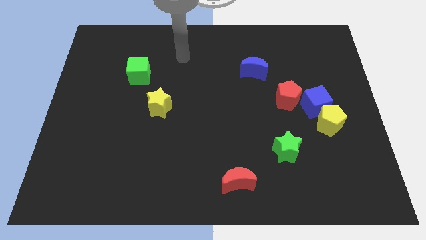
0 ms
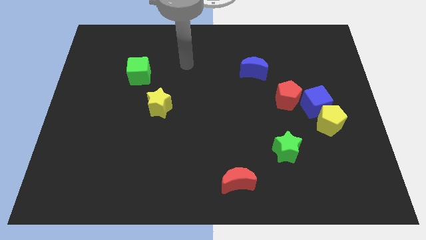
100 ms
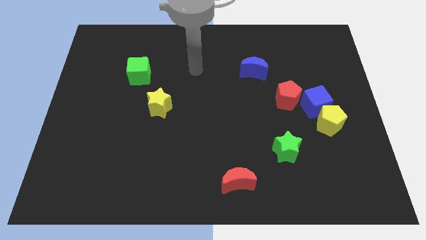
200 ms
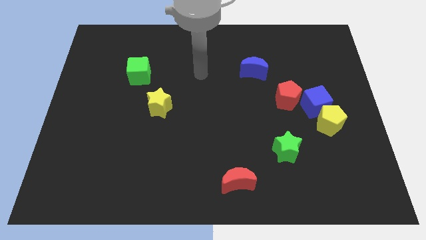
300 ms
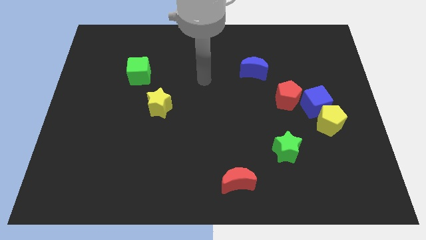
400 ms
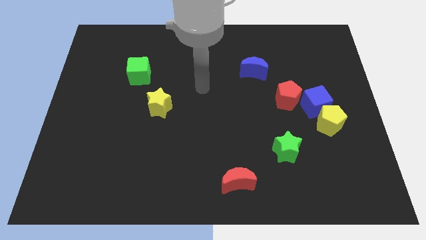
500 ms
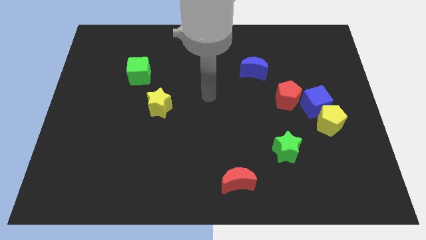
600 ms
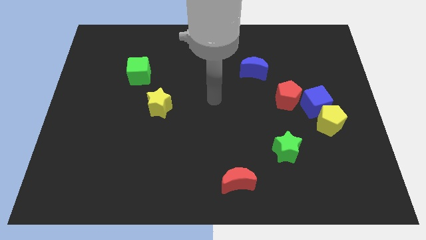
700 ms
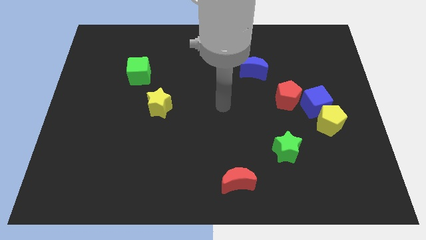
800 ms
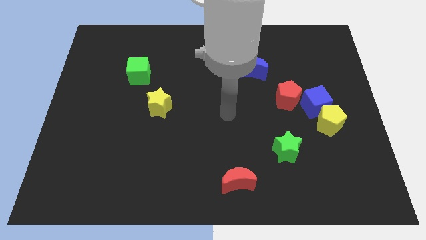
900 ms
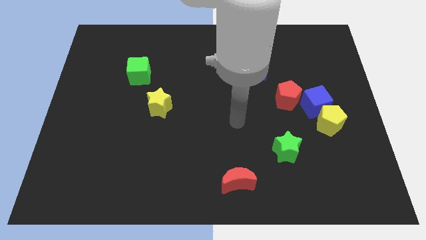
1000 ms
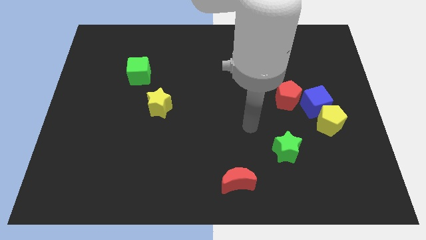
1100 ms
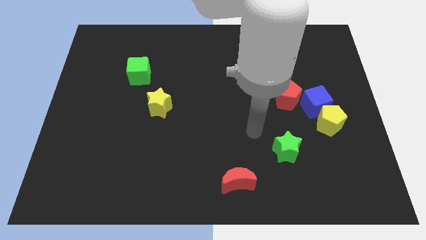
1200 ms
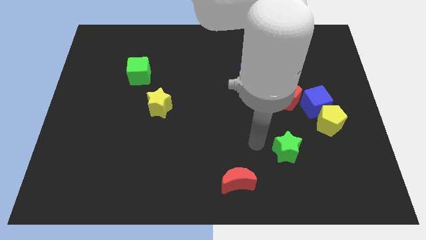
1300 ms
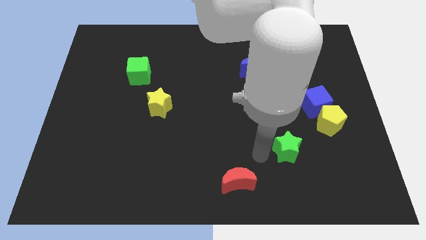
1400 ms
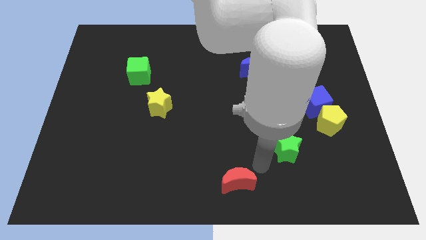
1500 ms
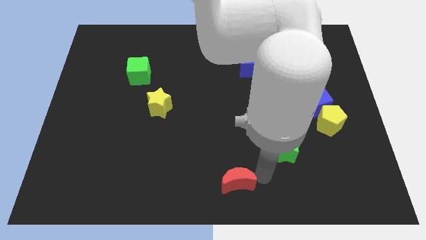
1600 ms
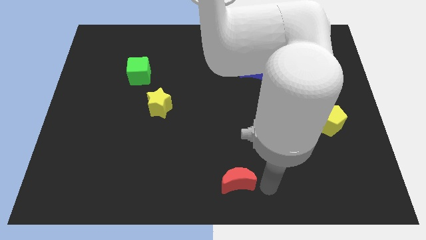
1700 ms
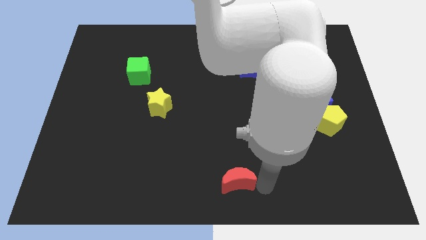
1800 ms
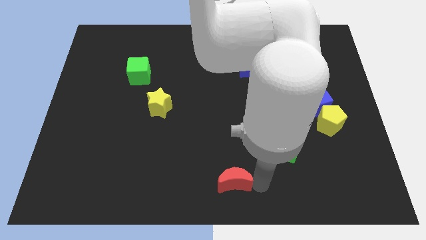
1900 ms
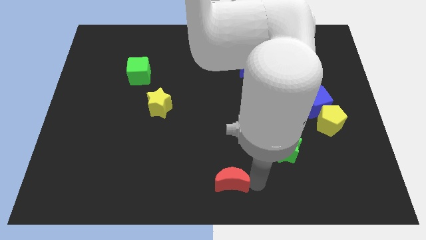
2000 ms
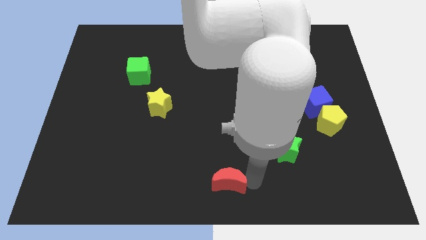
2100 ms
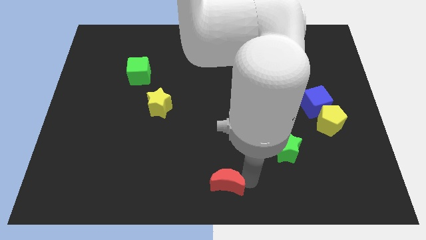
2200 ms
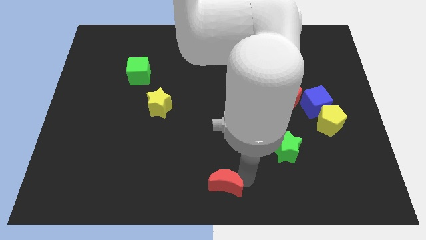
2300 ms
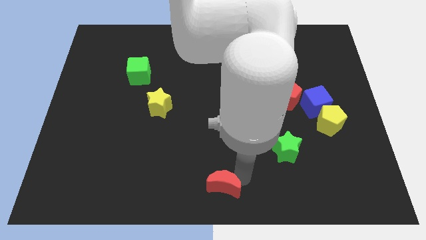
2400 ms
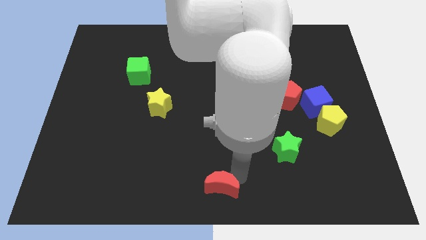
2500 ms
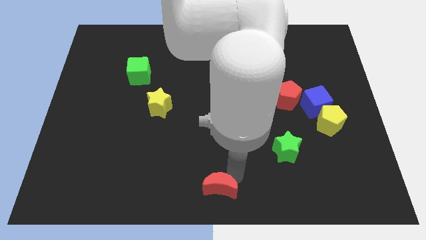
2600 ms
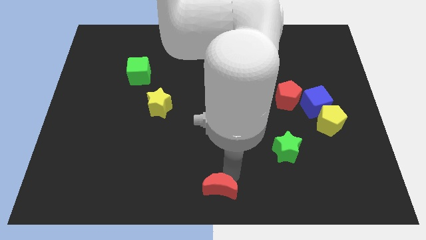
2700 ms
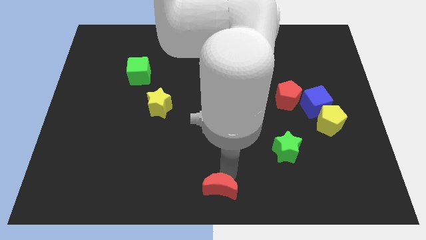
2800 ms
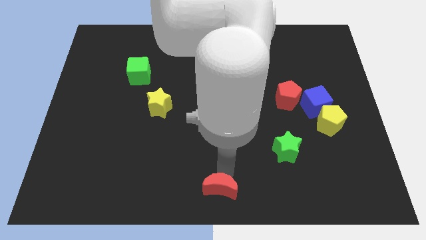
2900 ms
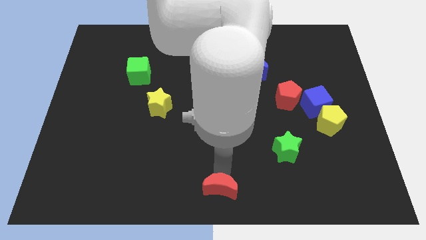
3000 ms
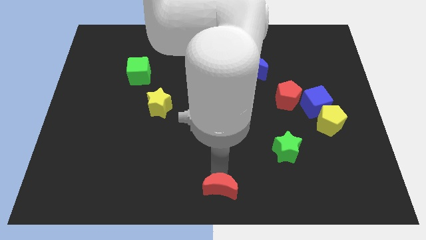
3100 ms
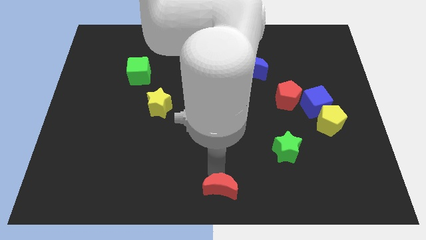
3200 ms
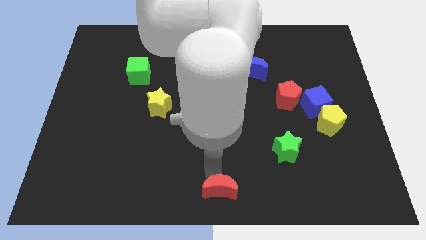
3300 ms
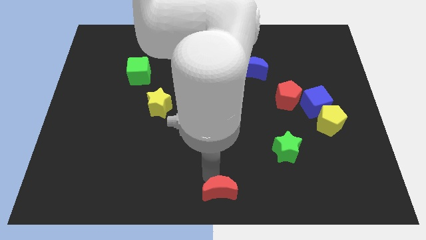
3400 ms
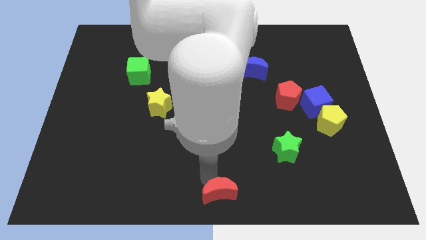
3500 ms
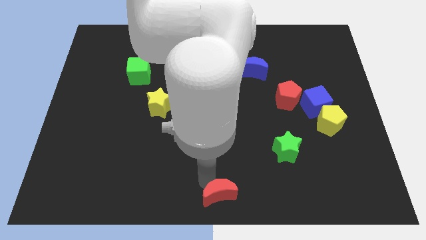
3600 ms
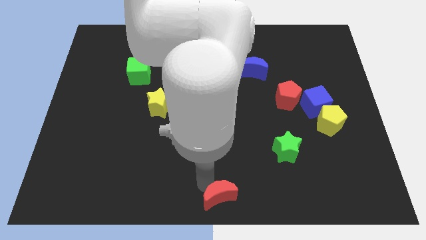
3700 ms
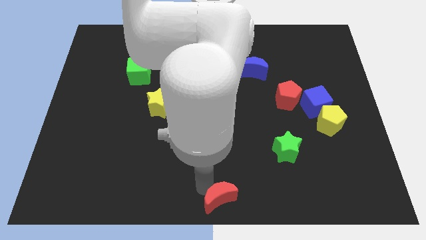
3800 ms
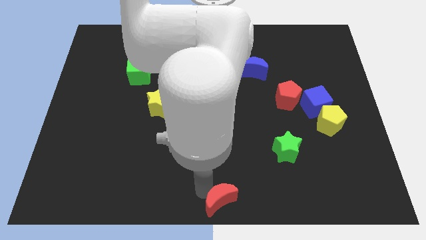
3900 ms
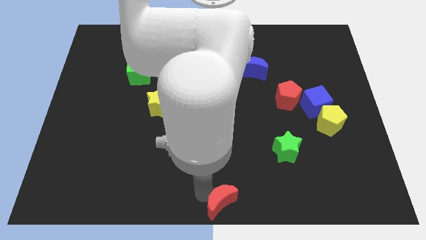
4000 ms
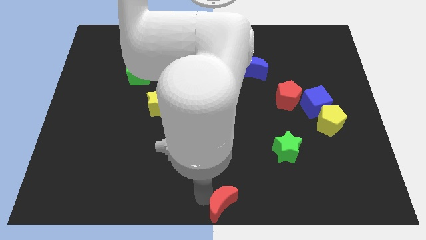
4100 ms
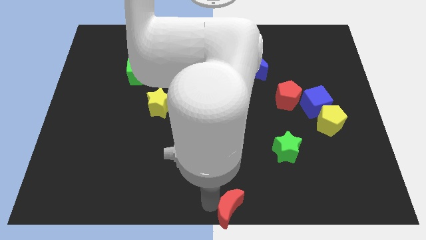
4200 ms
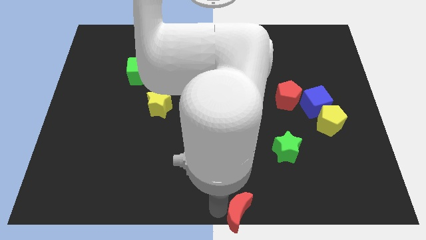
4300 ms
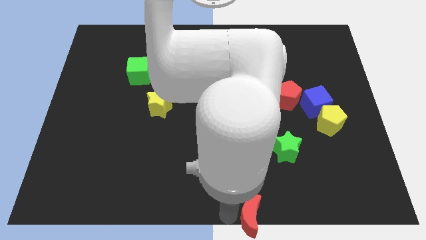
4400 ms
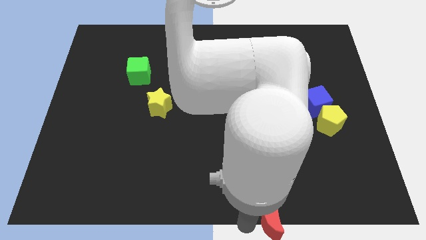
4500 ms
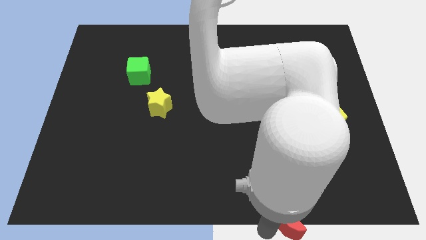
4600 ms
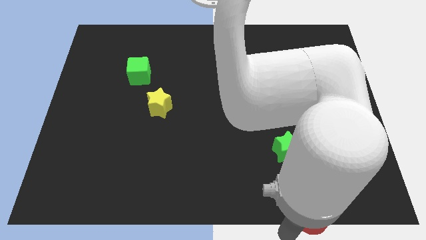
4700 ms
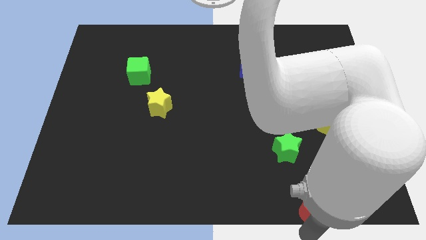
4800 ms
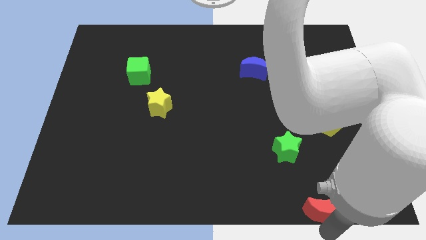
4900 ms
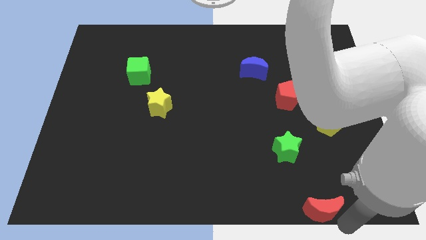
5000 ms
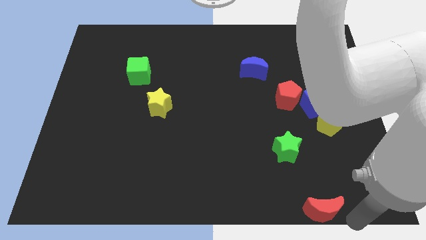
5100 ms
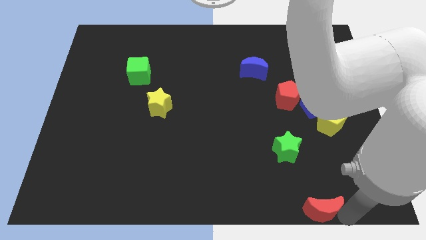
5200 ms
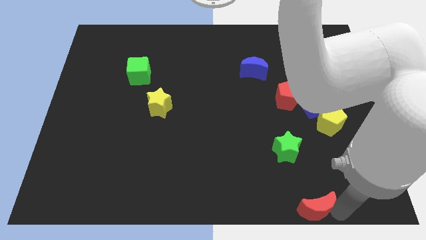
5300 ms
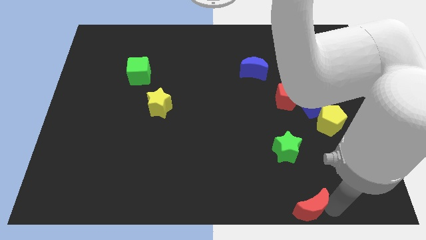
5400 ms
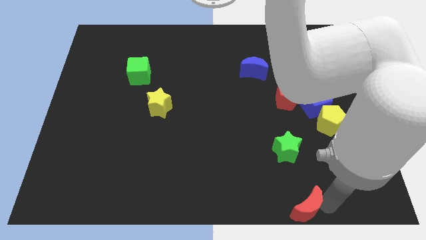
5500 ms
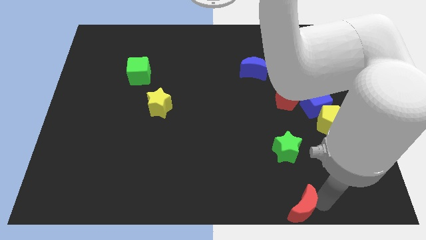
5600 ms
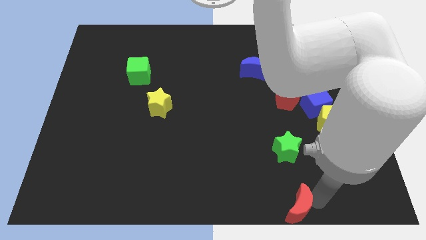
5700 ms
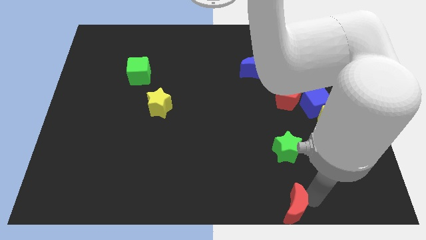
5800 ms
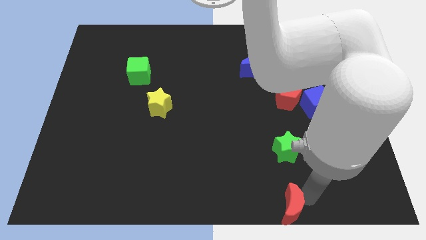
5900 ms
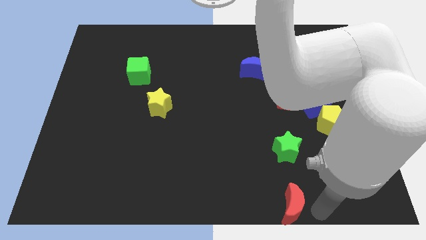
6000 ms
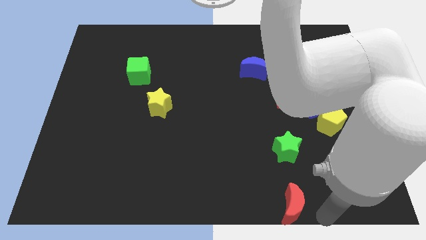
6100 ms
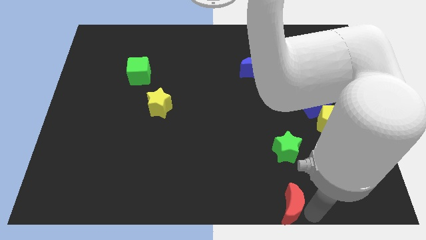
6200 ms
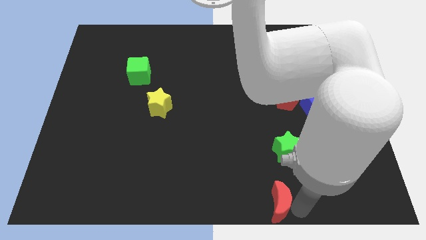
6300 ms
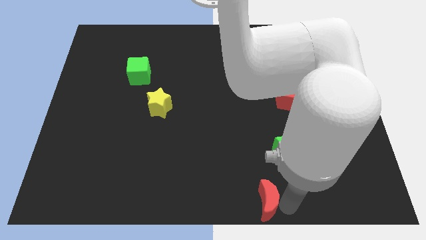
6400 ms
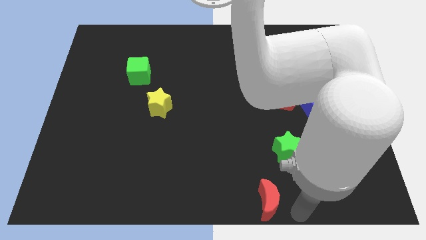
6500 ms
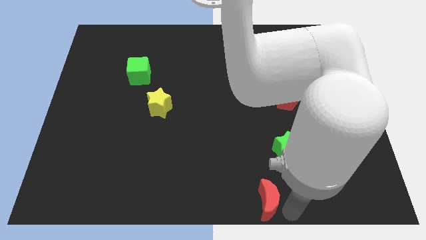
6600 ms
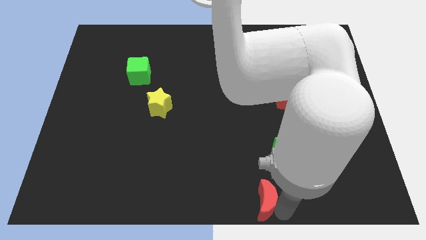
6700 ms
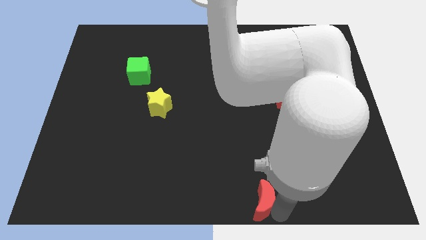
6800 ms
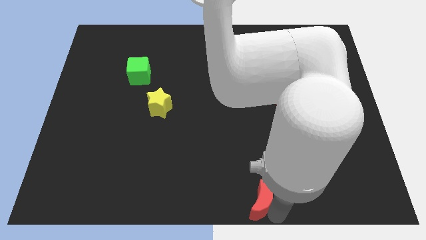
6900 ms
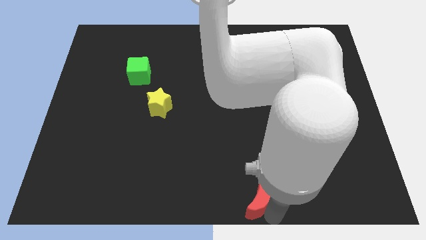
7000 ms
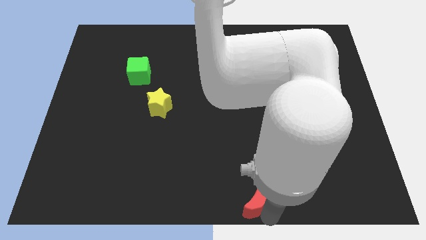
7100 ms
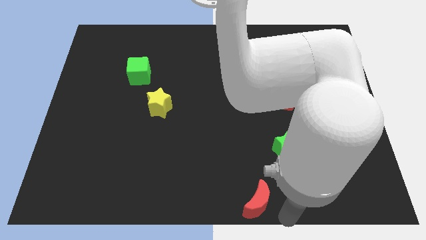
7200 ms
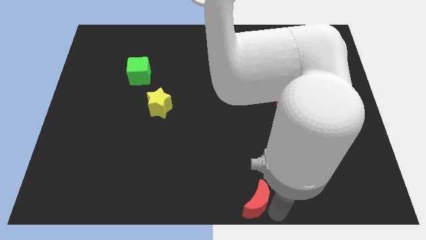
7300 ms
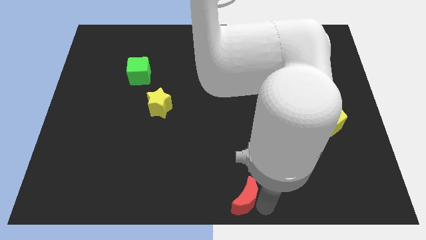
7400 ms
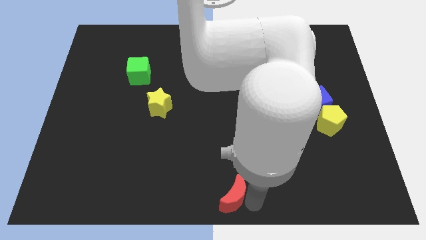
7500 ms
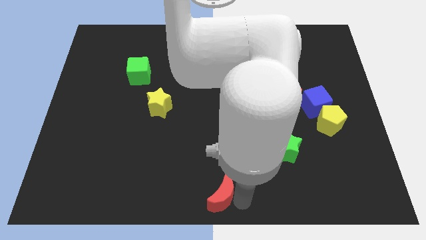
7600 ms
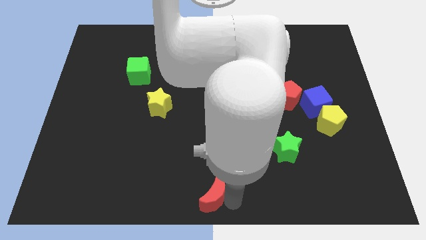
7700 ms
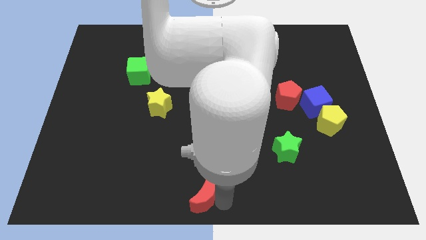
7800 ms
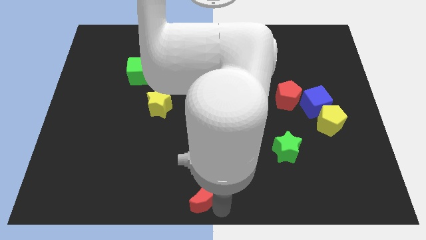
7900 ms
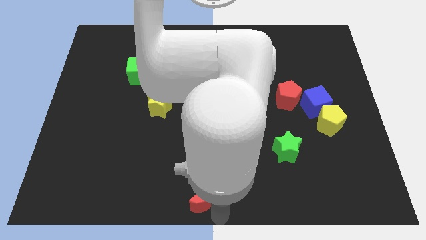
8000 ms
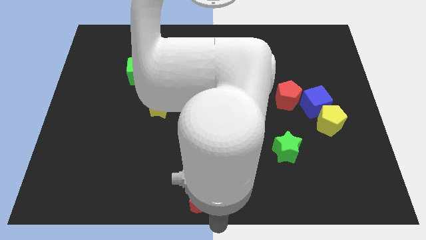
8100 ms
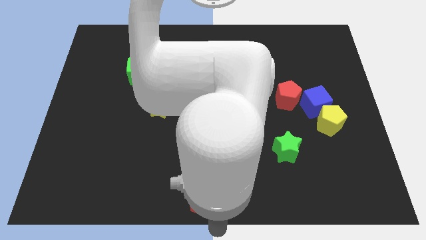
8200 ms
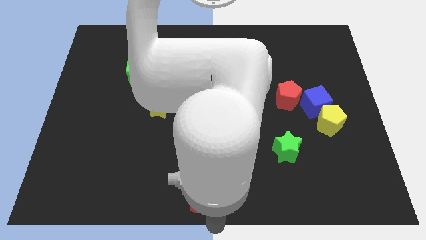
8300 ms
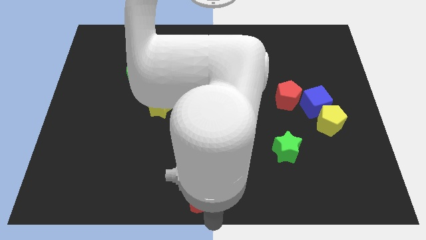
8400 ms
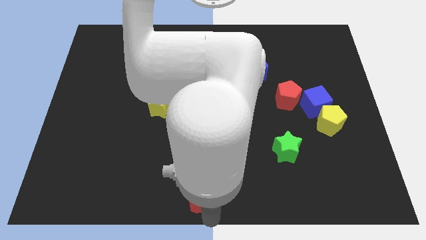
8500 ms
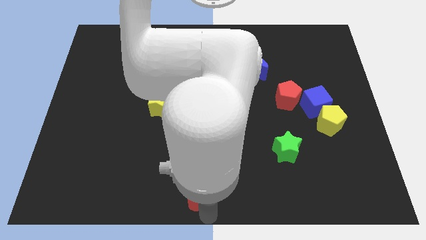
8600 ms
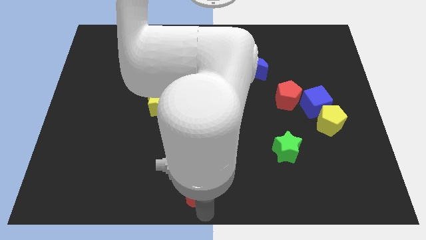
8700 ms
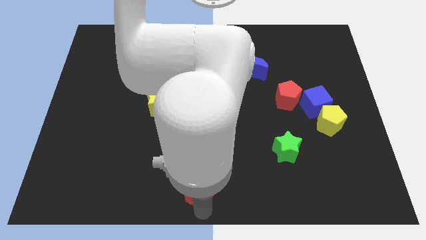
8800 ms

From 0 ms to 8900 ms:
move the red moon to the left slightly
